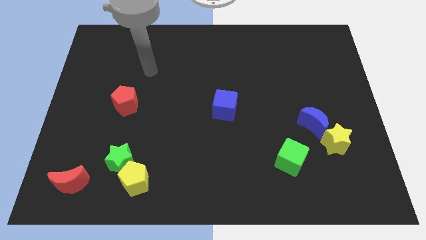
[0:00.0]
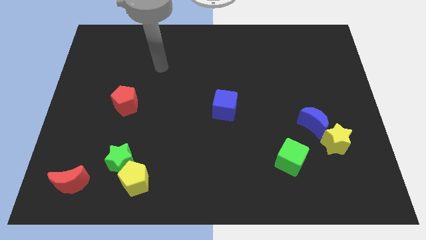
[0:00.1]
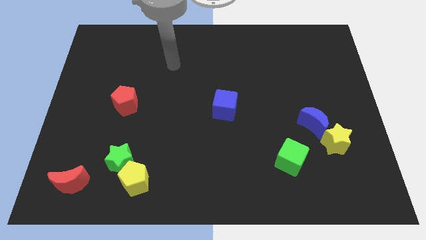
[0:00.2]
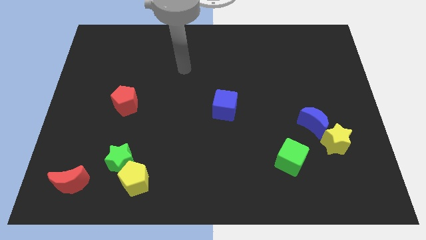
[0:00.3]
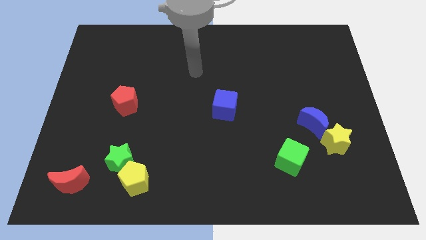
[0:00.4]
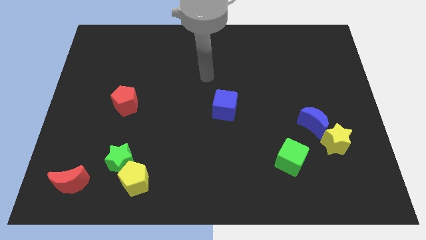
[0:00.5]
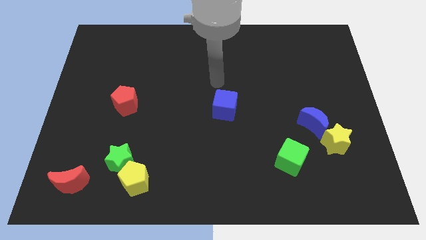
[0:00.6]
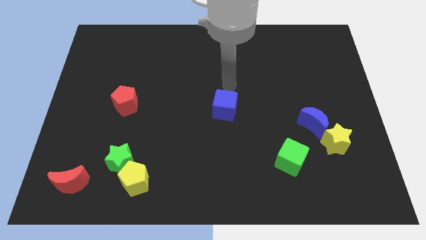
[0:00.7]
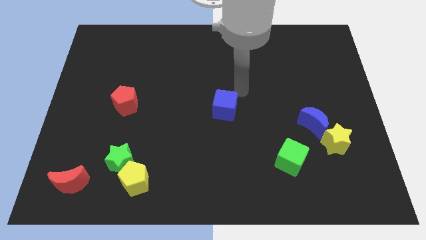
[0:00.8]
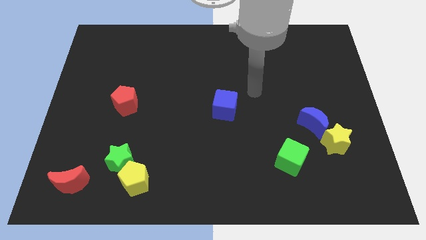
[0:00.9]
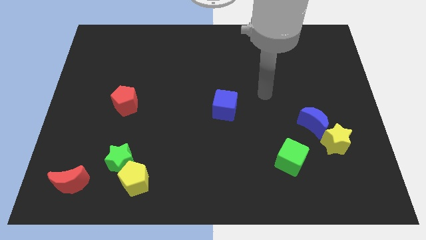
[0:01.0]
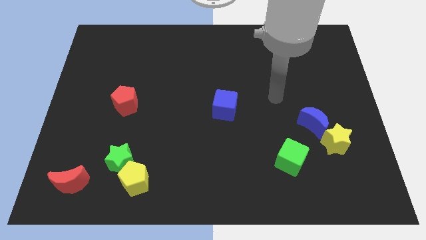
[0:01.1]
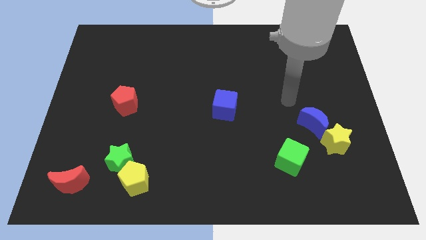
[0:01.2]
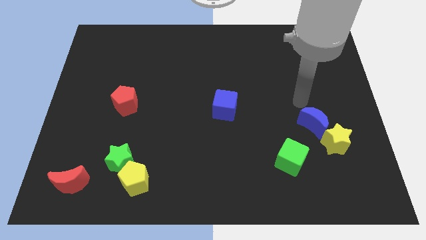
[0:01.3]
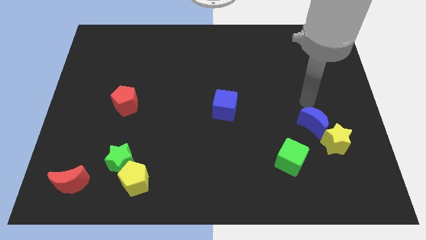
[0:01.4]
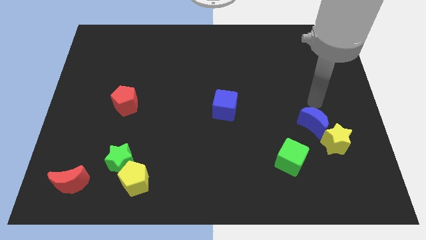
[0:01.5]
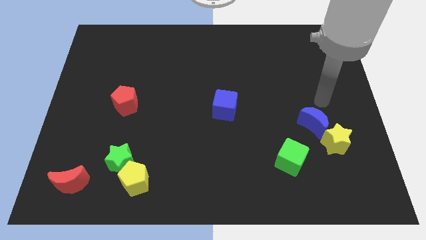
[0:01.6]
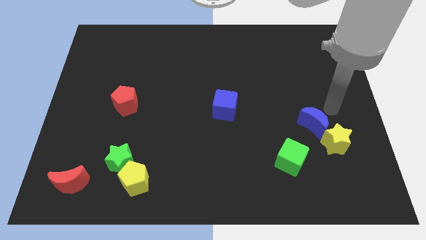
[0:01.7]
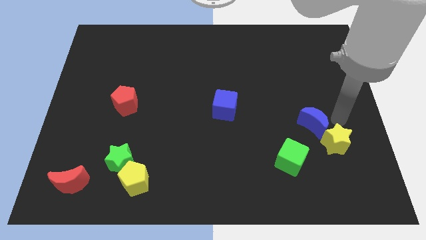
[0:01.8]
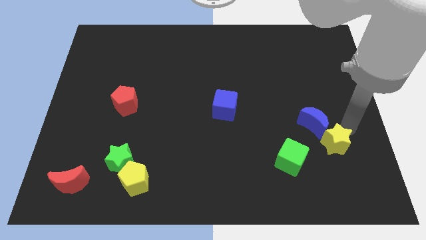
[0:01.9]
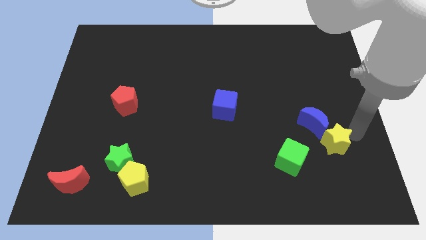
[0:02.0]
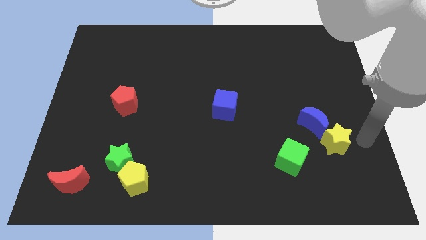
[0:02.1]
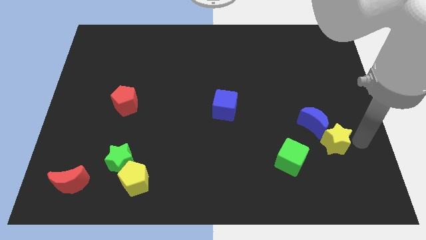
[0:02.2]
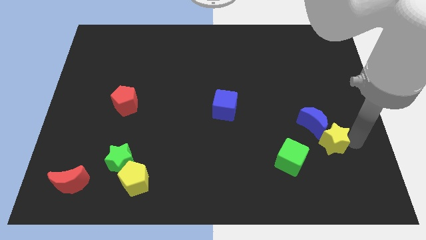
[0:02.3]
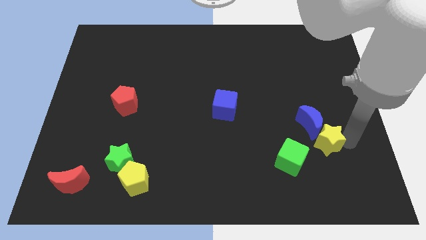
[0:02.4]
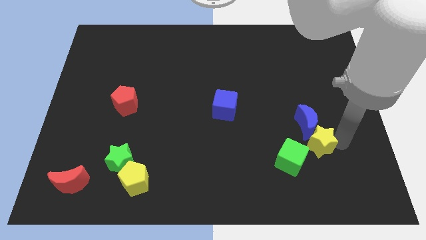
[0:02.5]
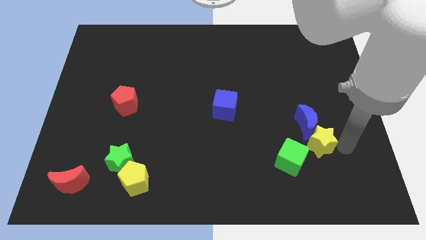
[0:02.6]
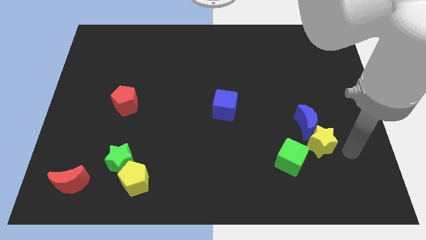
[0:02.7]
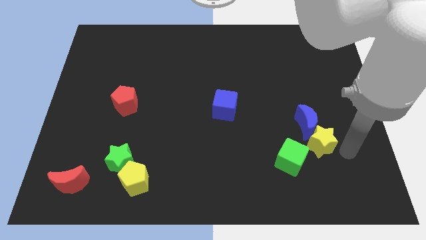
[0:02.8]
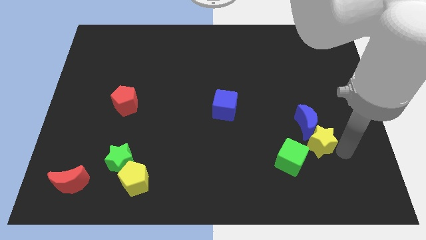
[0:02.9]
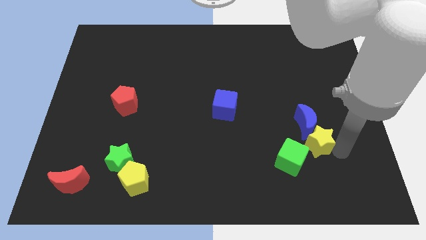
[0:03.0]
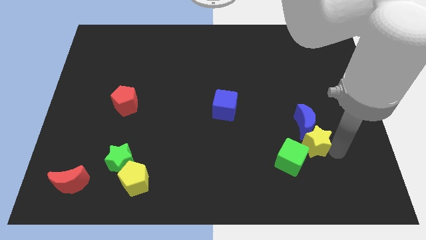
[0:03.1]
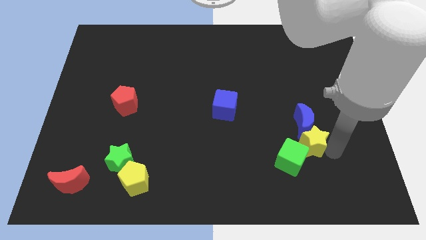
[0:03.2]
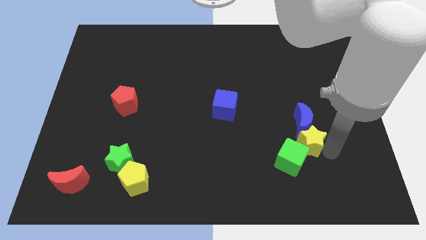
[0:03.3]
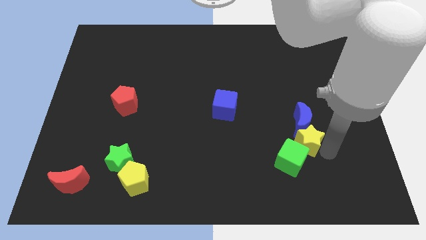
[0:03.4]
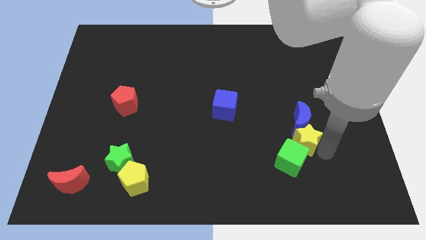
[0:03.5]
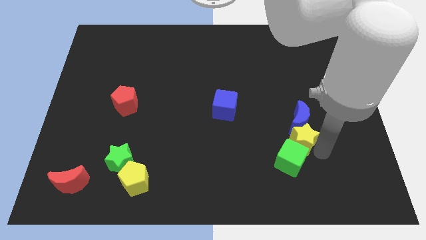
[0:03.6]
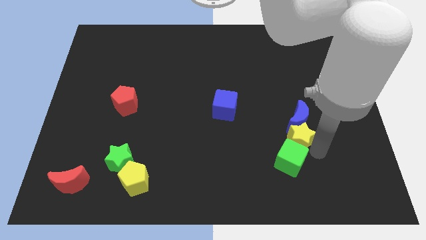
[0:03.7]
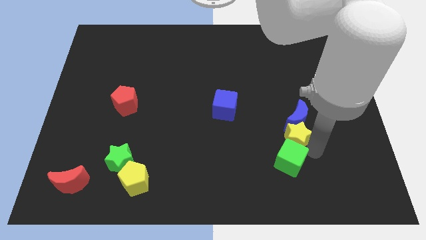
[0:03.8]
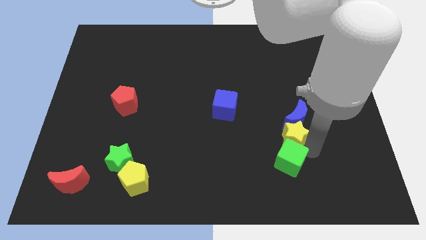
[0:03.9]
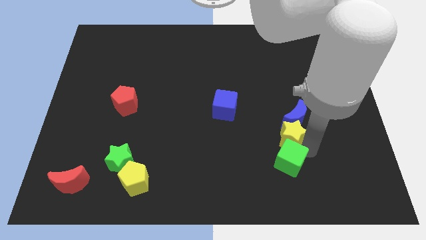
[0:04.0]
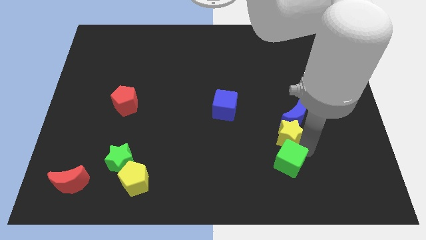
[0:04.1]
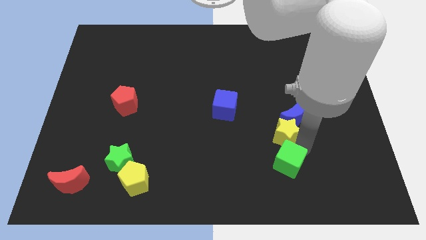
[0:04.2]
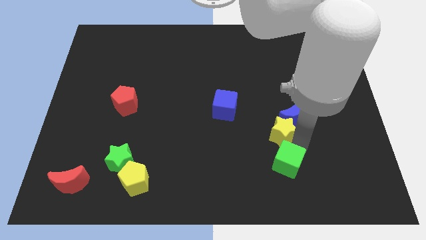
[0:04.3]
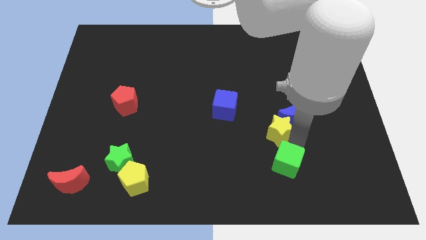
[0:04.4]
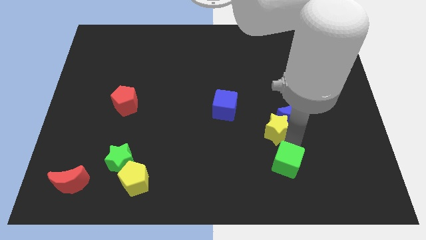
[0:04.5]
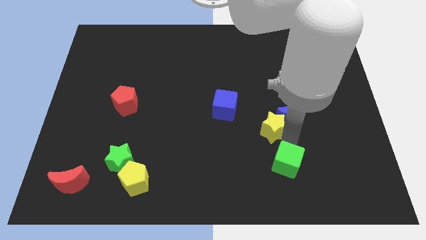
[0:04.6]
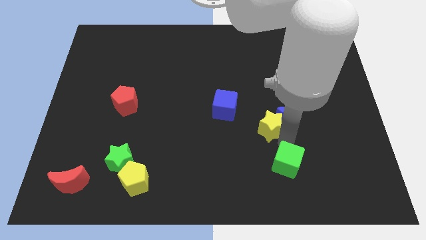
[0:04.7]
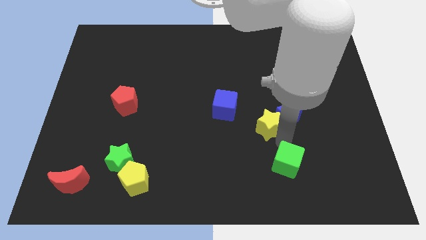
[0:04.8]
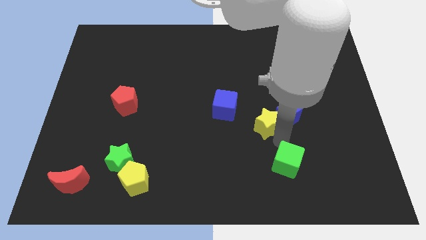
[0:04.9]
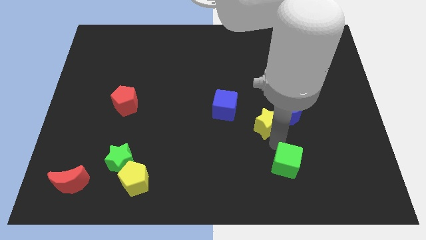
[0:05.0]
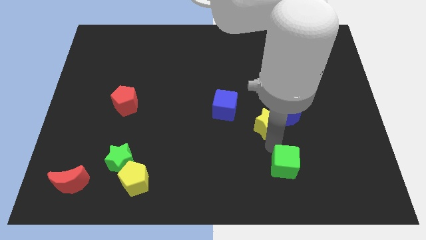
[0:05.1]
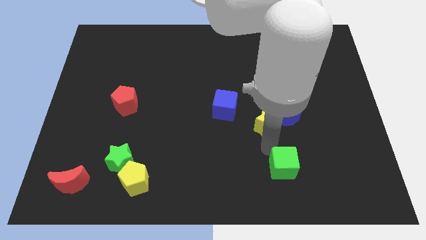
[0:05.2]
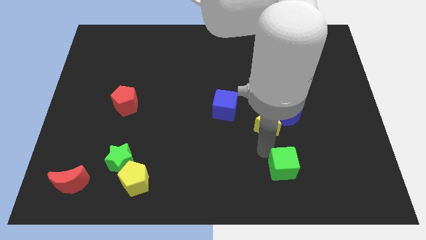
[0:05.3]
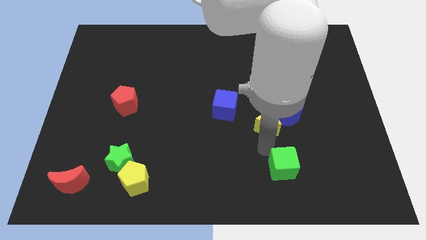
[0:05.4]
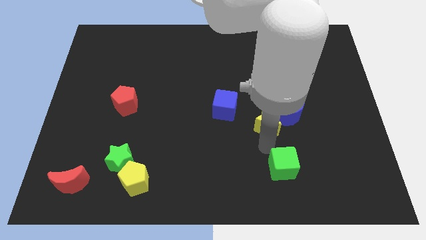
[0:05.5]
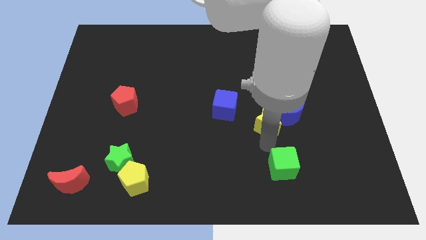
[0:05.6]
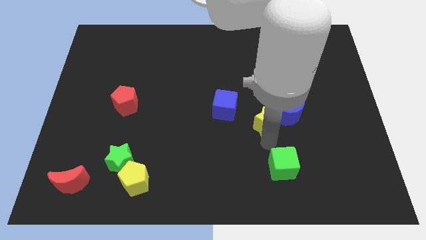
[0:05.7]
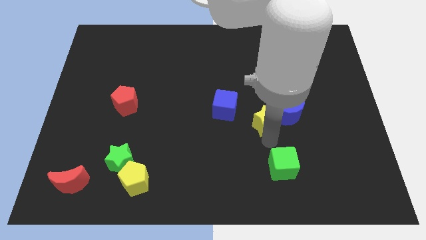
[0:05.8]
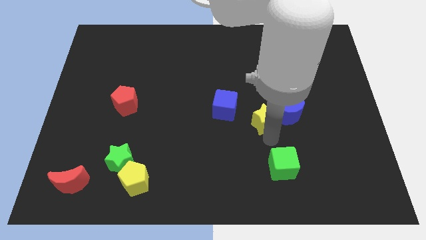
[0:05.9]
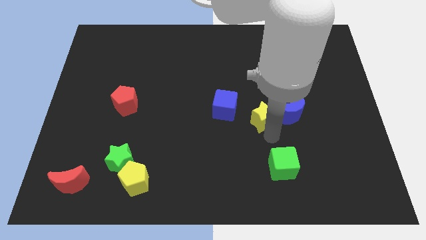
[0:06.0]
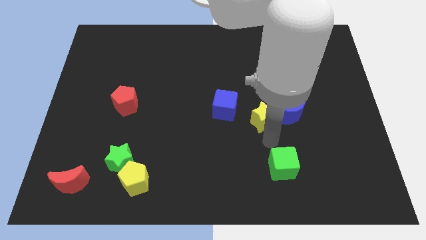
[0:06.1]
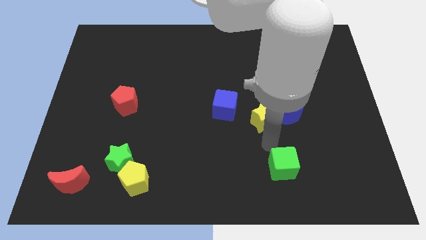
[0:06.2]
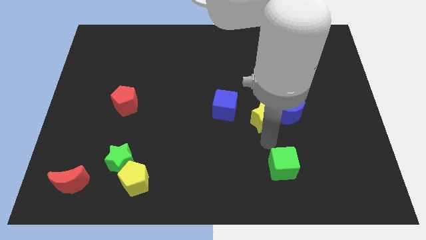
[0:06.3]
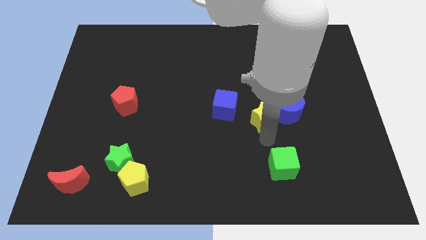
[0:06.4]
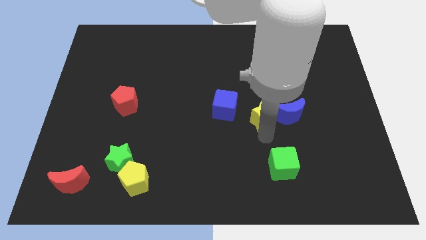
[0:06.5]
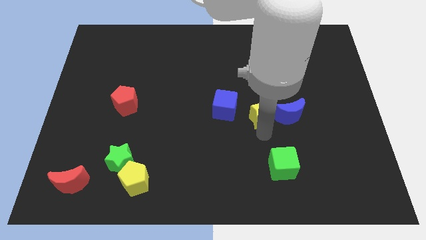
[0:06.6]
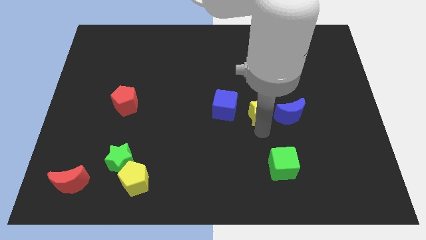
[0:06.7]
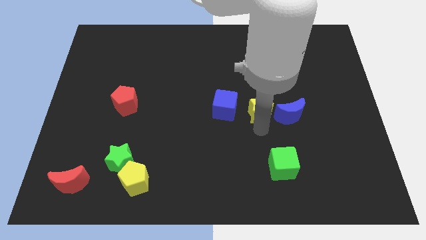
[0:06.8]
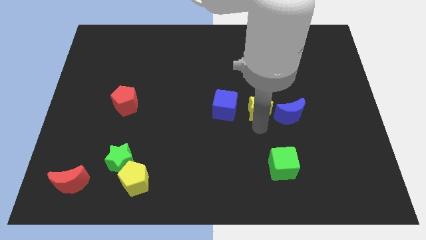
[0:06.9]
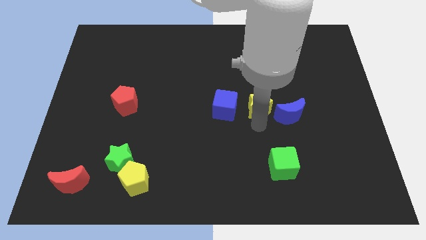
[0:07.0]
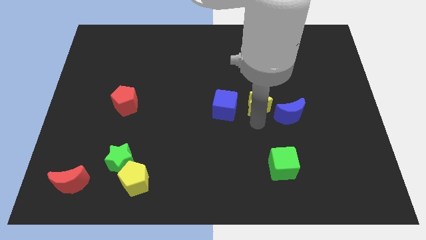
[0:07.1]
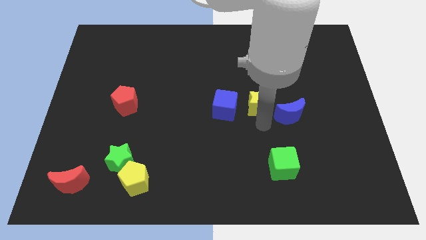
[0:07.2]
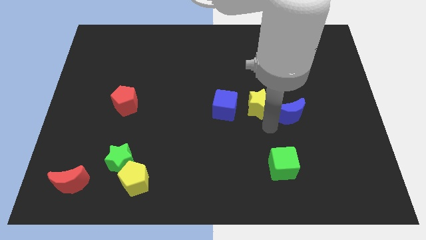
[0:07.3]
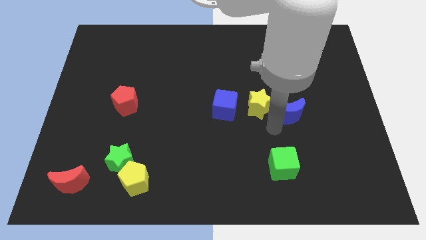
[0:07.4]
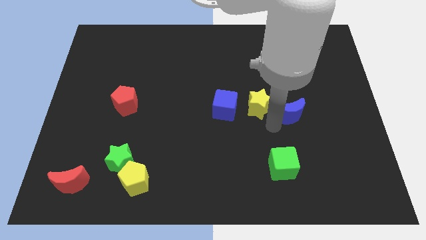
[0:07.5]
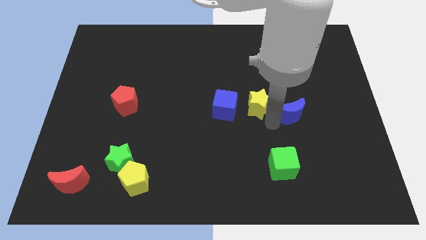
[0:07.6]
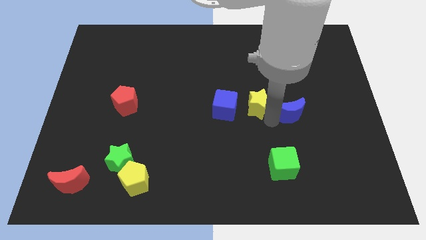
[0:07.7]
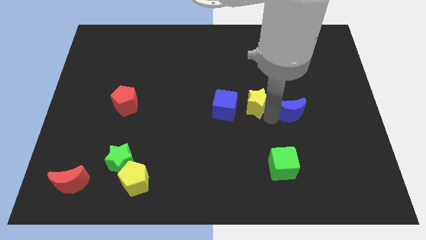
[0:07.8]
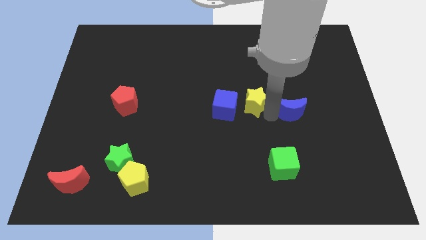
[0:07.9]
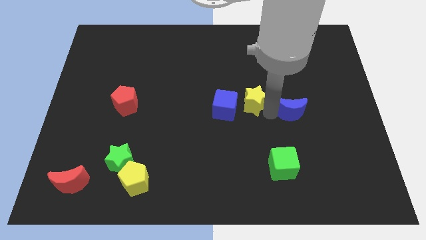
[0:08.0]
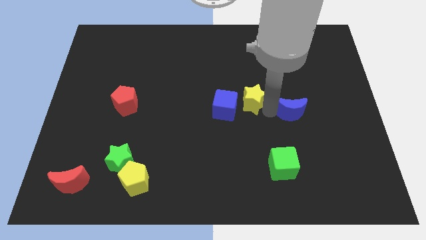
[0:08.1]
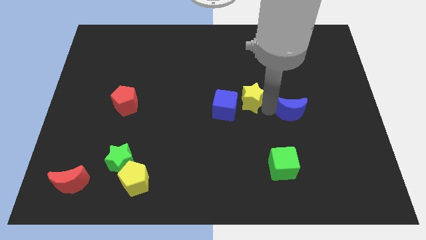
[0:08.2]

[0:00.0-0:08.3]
move the yellow star up and to the left diagonally
